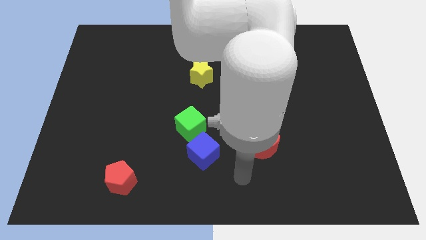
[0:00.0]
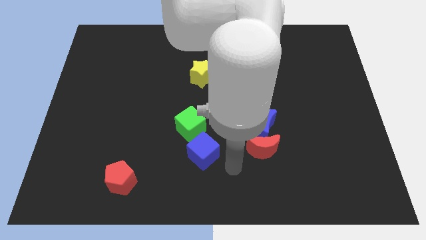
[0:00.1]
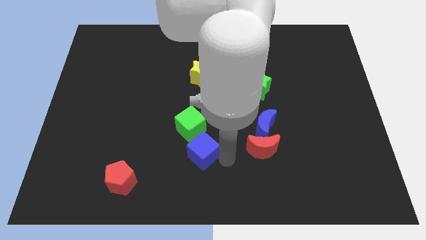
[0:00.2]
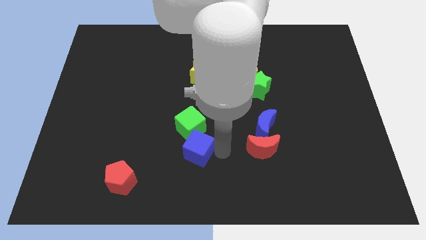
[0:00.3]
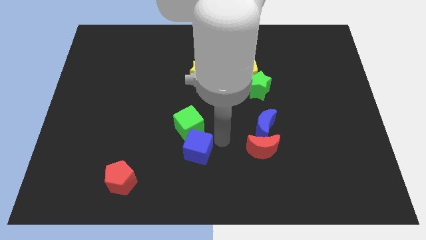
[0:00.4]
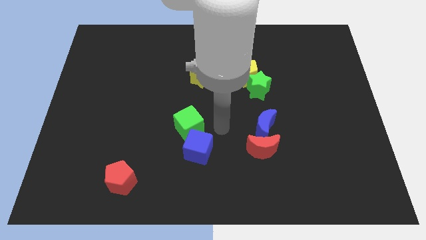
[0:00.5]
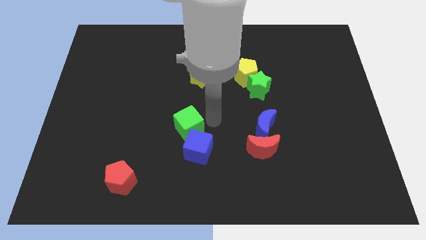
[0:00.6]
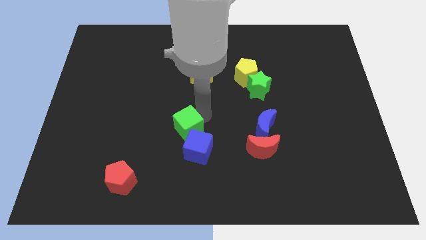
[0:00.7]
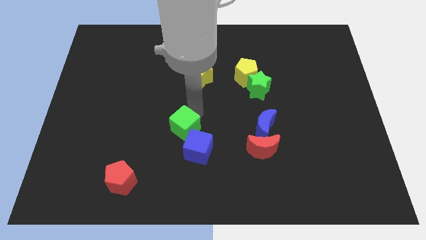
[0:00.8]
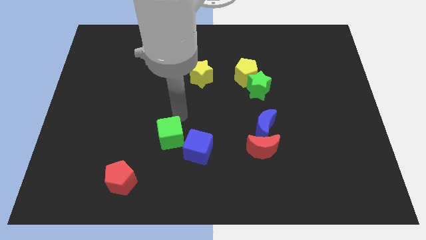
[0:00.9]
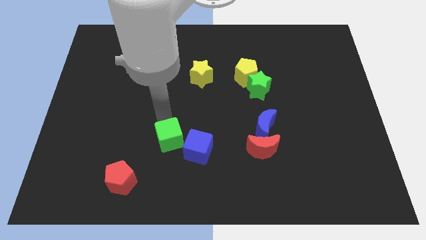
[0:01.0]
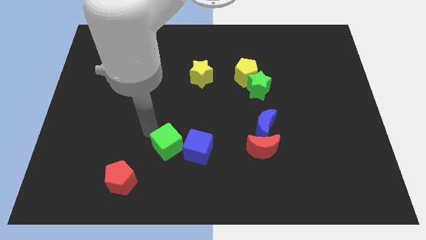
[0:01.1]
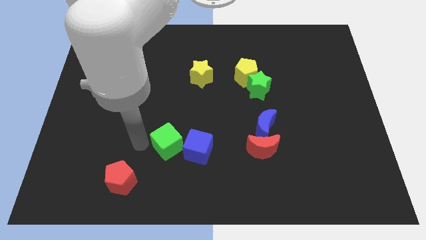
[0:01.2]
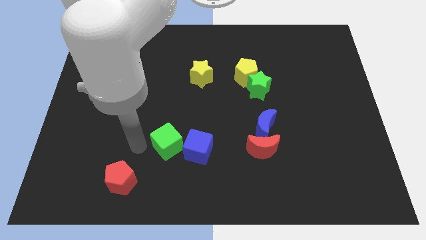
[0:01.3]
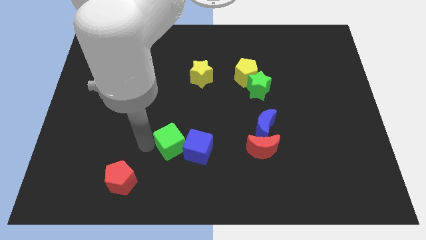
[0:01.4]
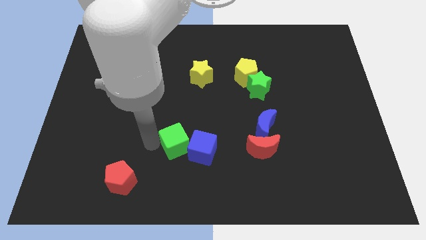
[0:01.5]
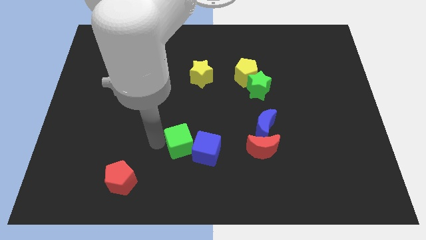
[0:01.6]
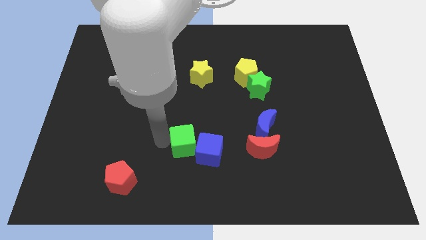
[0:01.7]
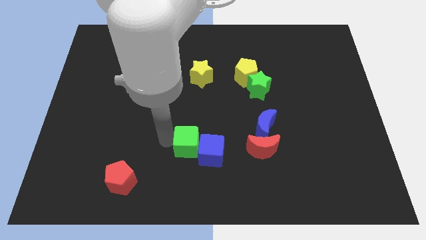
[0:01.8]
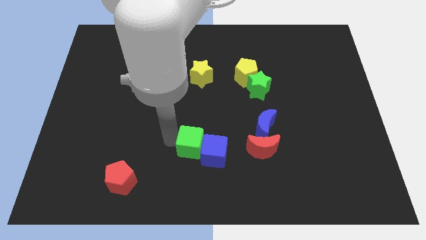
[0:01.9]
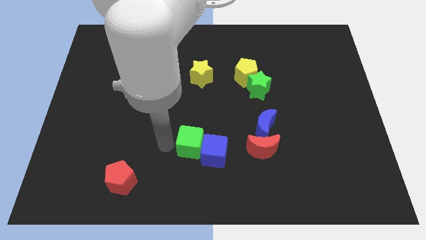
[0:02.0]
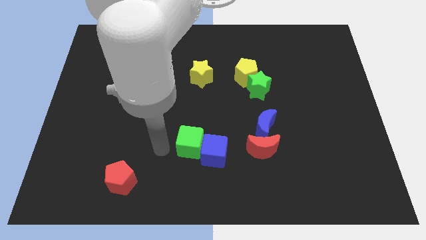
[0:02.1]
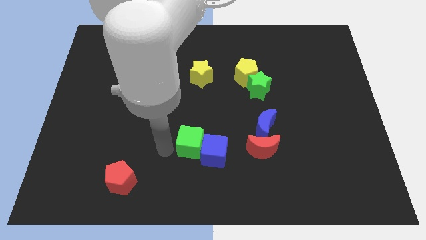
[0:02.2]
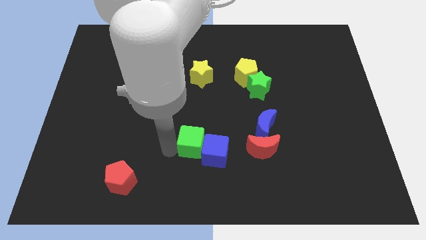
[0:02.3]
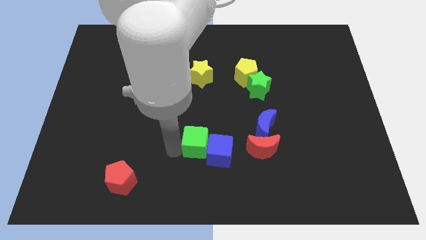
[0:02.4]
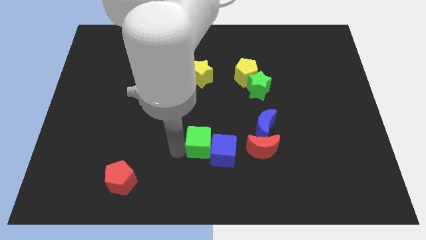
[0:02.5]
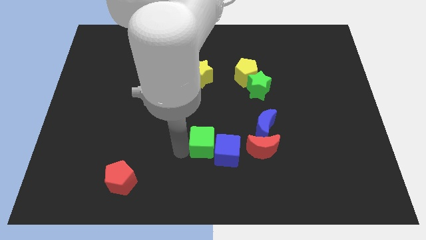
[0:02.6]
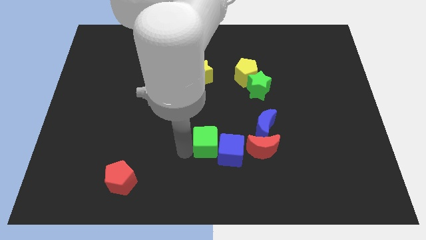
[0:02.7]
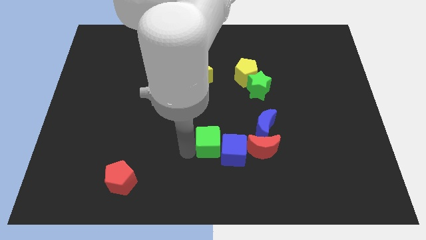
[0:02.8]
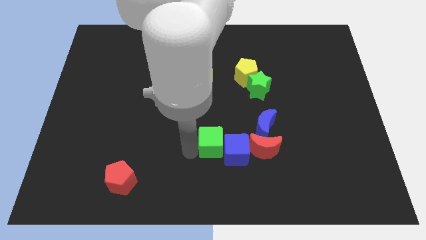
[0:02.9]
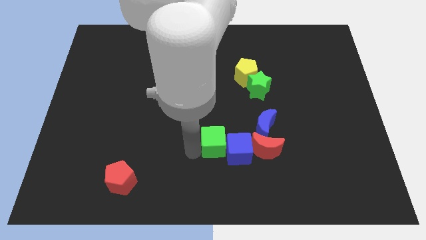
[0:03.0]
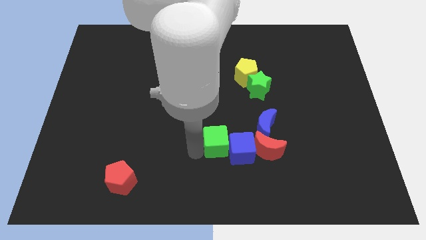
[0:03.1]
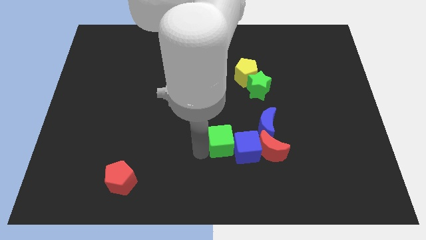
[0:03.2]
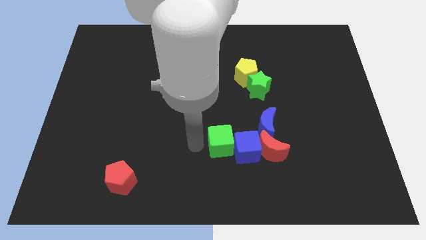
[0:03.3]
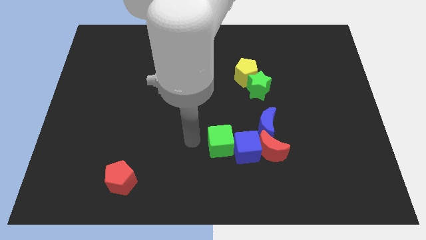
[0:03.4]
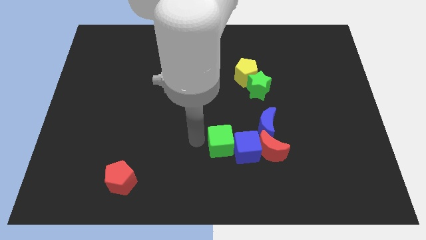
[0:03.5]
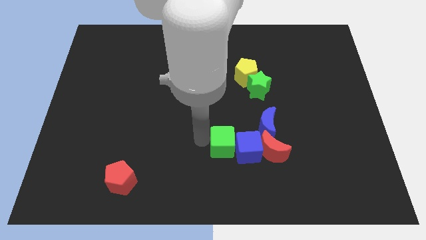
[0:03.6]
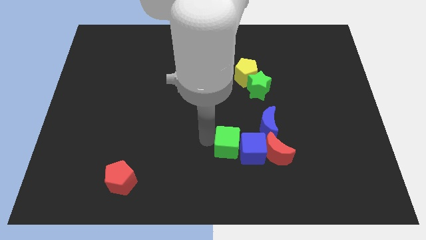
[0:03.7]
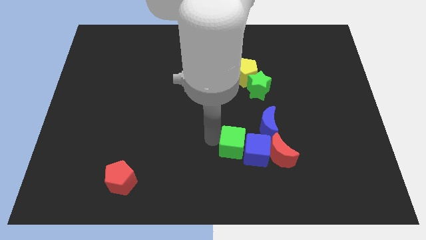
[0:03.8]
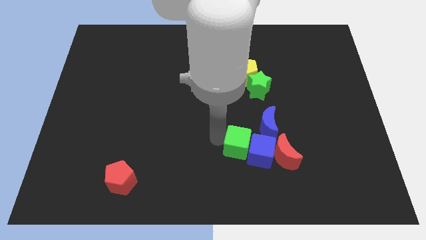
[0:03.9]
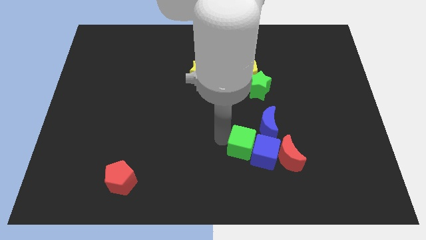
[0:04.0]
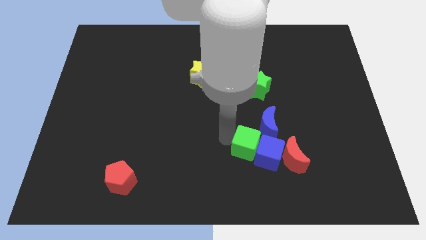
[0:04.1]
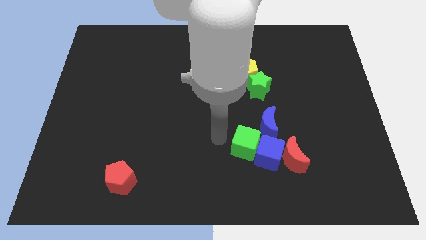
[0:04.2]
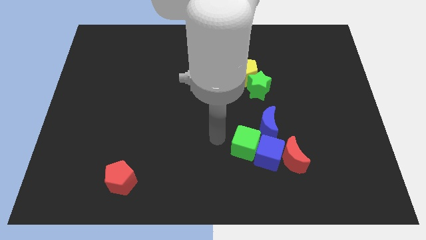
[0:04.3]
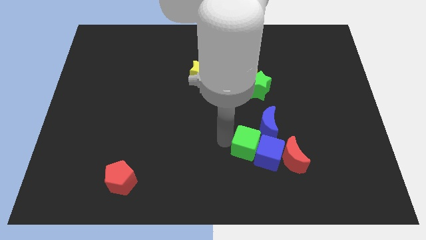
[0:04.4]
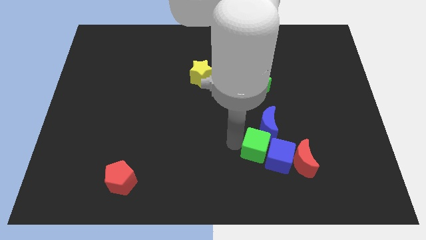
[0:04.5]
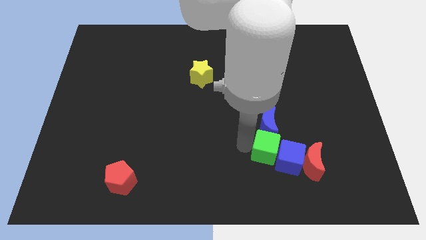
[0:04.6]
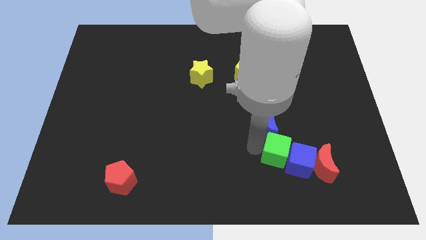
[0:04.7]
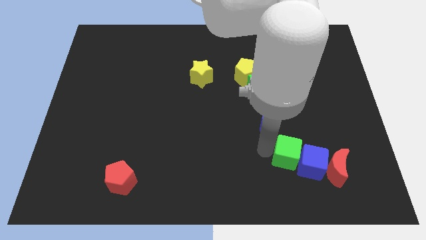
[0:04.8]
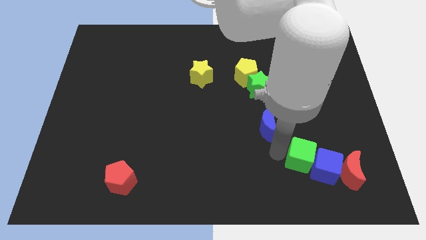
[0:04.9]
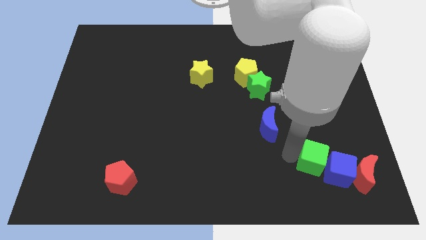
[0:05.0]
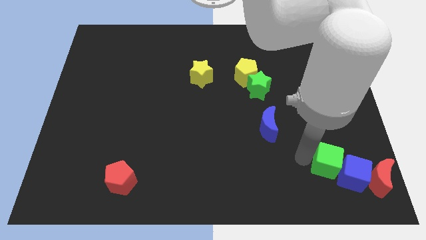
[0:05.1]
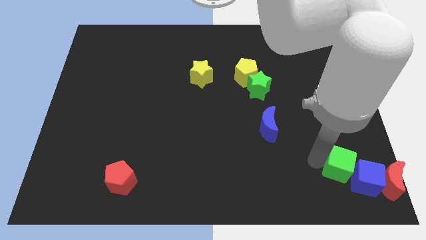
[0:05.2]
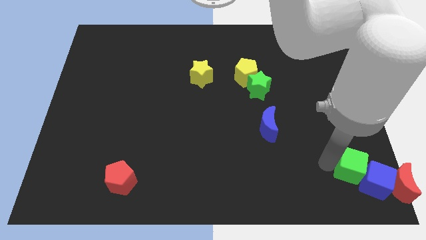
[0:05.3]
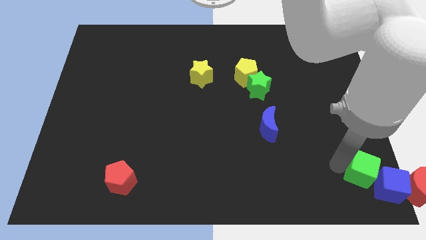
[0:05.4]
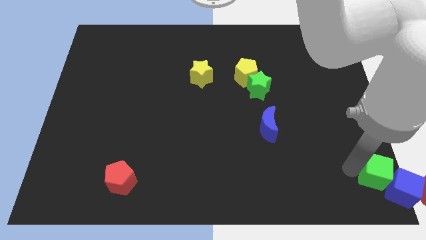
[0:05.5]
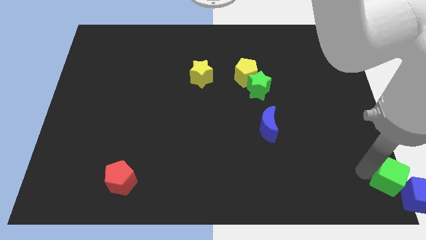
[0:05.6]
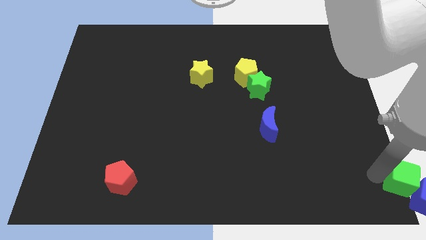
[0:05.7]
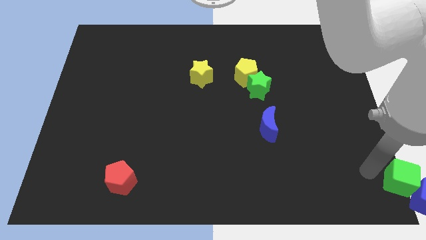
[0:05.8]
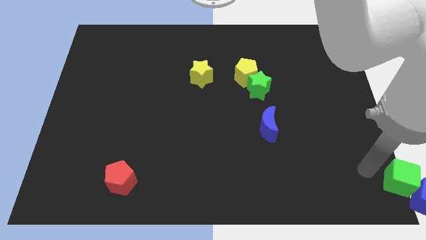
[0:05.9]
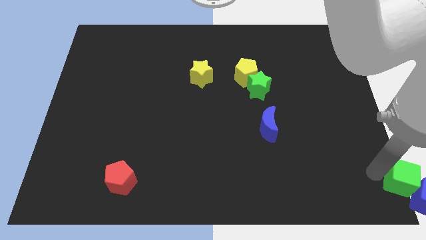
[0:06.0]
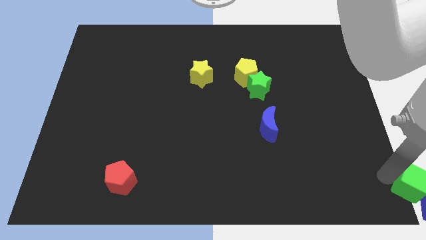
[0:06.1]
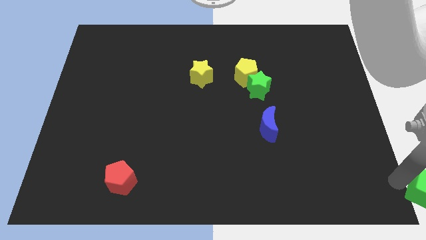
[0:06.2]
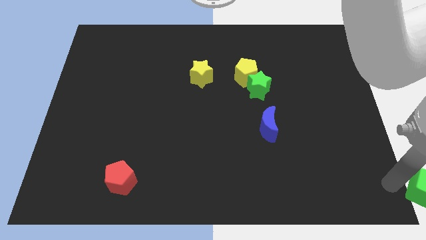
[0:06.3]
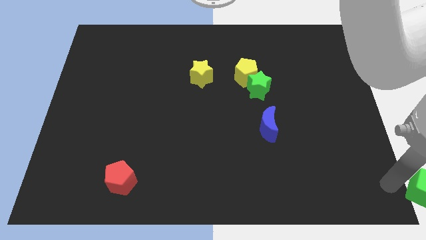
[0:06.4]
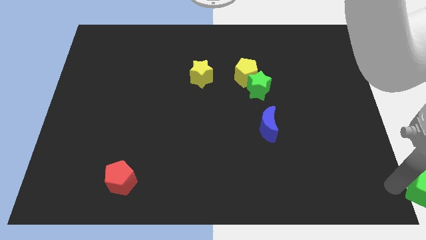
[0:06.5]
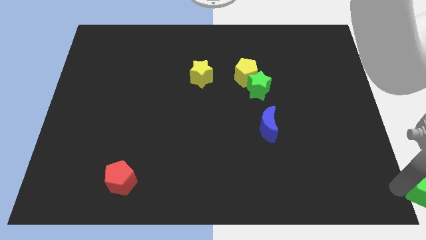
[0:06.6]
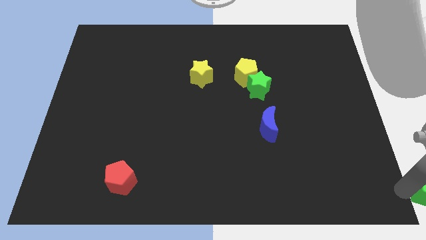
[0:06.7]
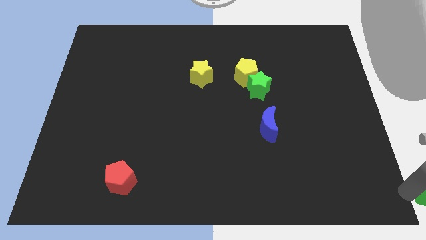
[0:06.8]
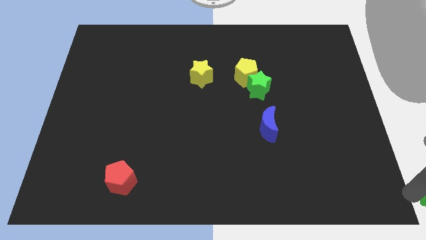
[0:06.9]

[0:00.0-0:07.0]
slide the green cube towards the red moon
